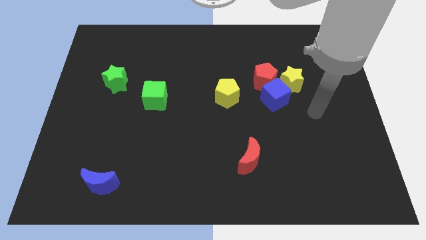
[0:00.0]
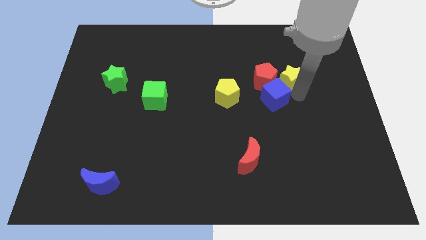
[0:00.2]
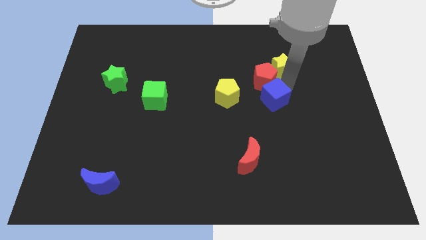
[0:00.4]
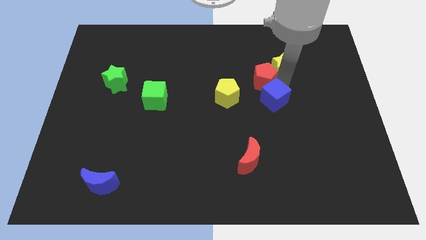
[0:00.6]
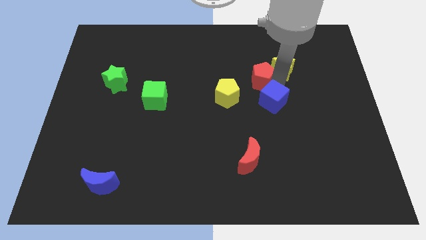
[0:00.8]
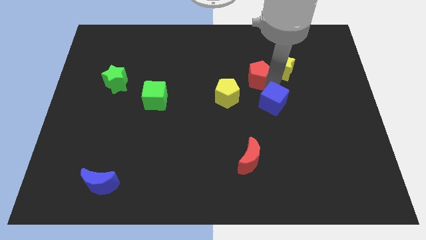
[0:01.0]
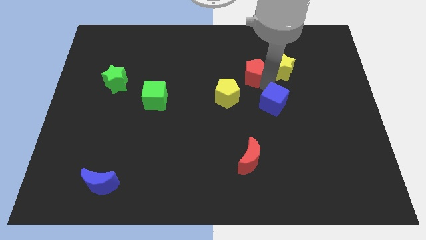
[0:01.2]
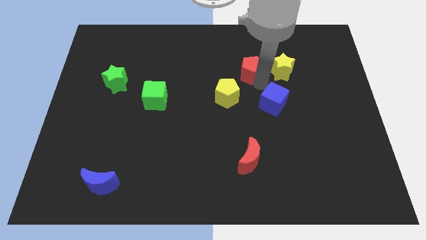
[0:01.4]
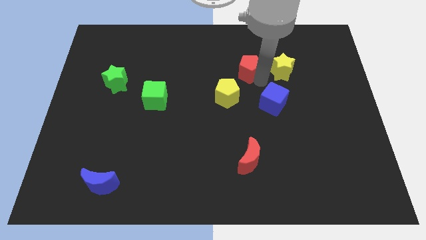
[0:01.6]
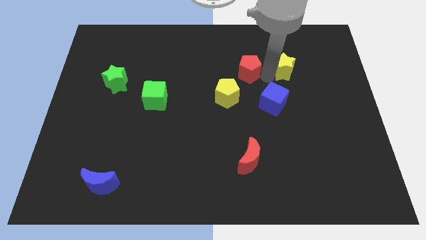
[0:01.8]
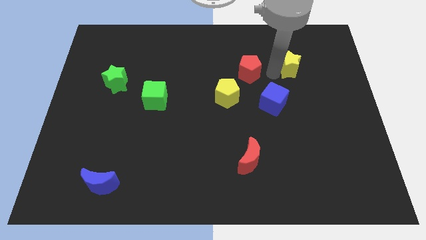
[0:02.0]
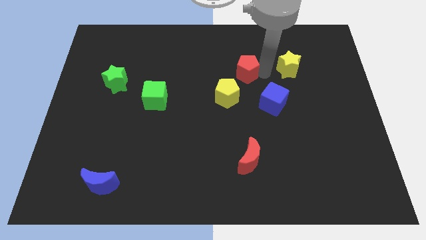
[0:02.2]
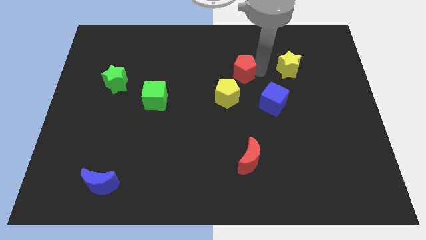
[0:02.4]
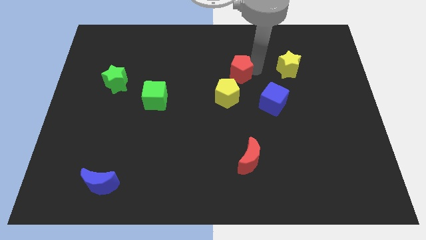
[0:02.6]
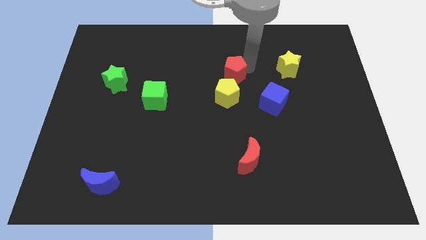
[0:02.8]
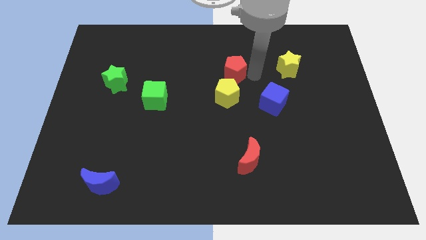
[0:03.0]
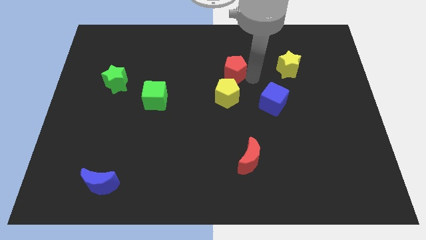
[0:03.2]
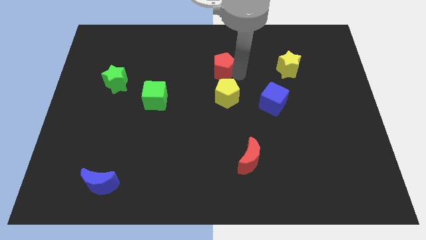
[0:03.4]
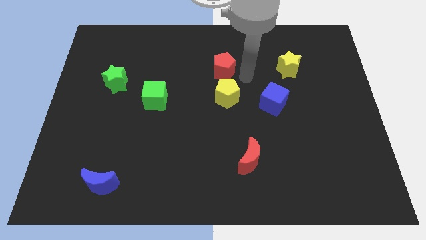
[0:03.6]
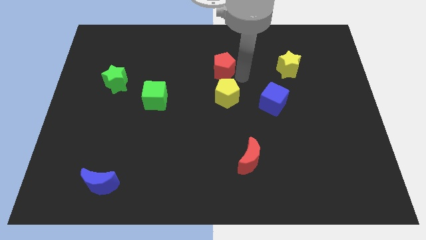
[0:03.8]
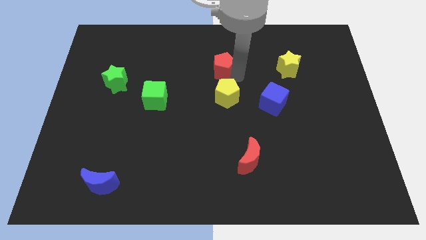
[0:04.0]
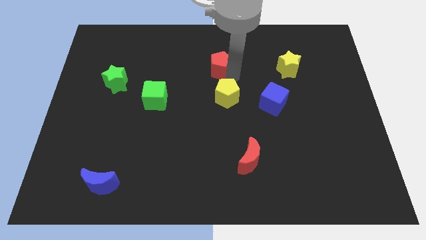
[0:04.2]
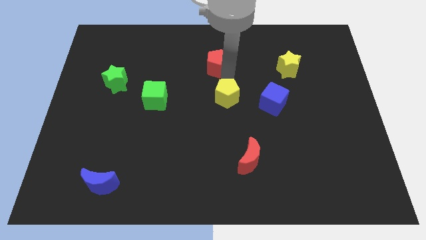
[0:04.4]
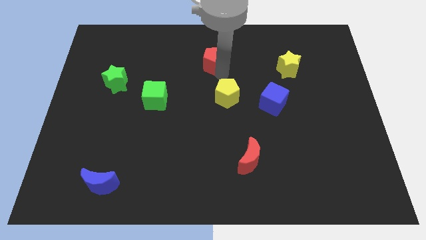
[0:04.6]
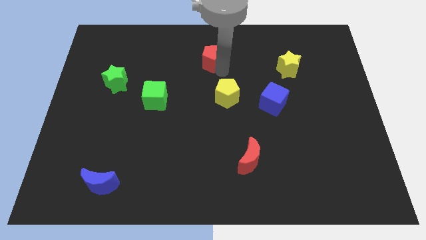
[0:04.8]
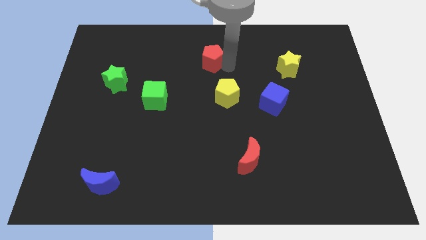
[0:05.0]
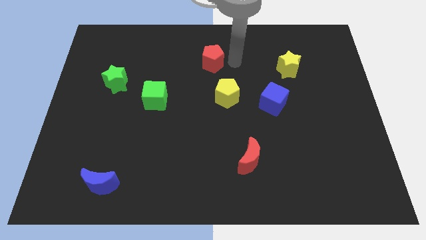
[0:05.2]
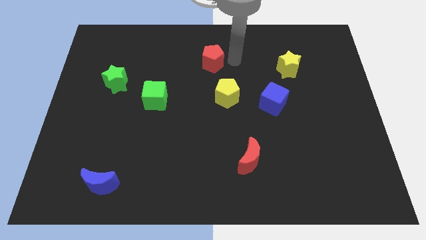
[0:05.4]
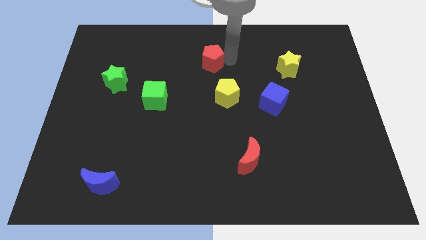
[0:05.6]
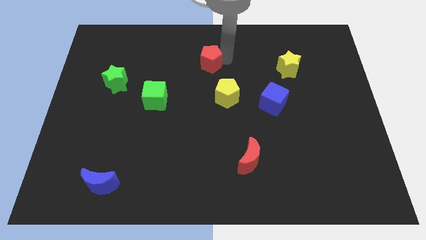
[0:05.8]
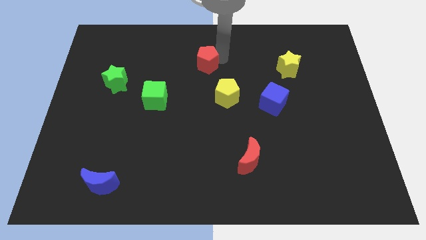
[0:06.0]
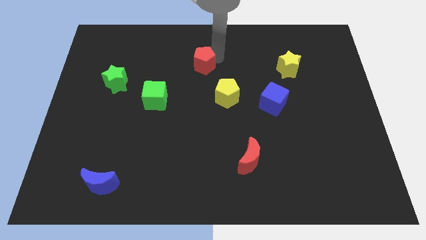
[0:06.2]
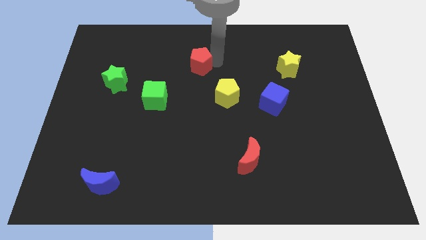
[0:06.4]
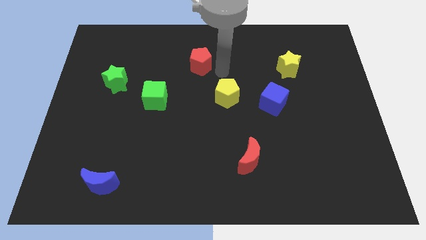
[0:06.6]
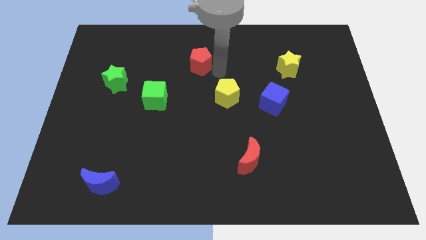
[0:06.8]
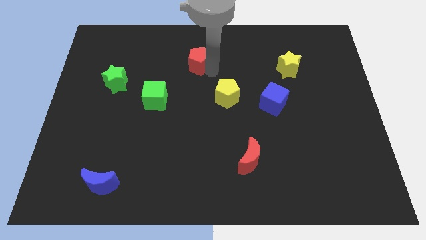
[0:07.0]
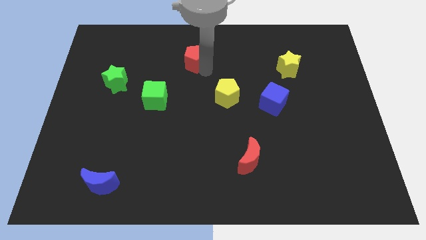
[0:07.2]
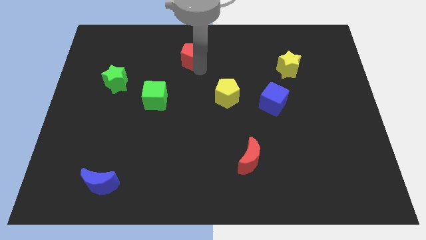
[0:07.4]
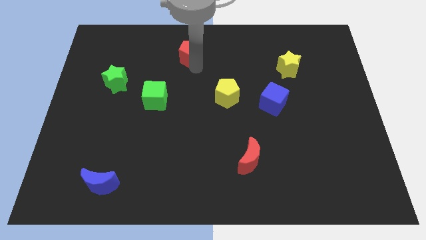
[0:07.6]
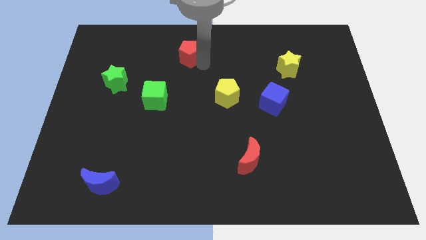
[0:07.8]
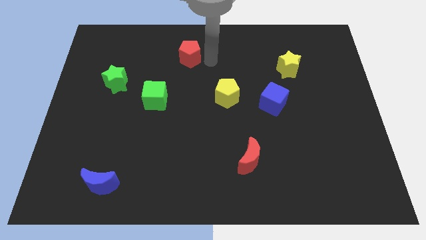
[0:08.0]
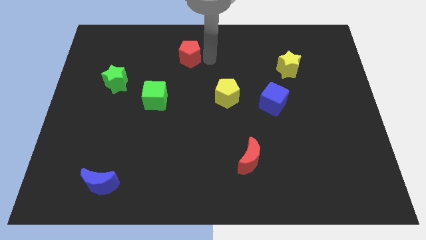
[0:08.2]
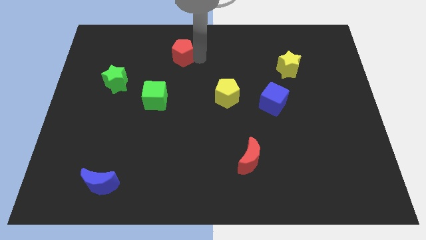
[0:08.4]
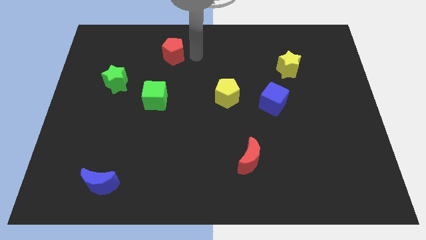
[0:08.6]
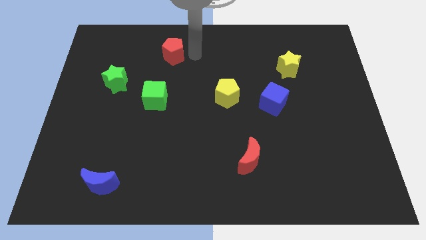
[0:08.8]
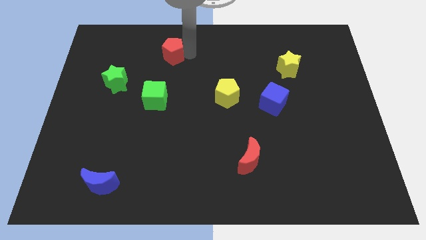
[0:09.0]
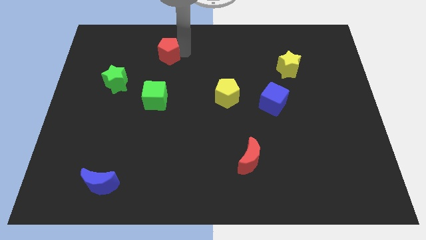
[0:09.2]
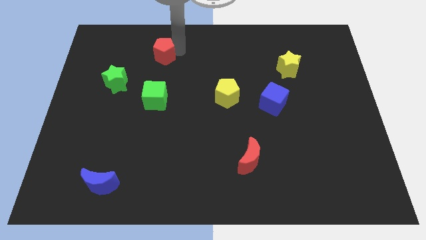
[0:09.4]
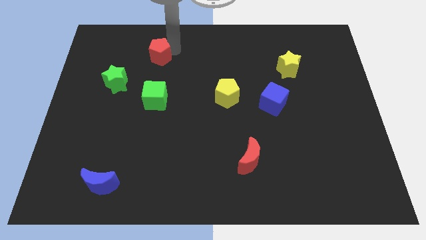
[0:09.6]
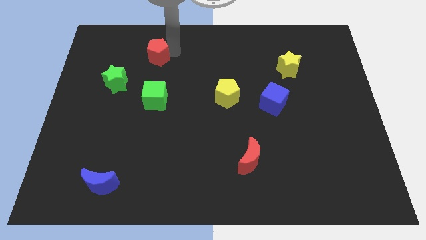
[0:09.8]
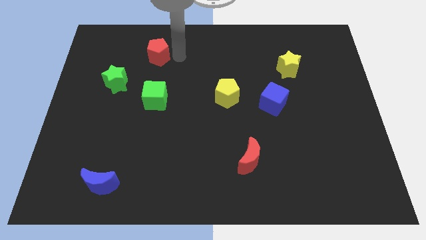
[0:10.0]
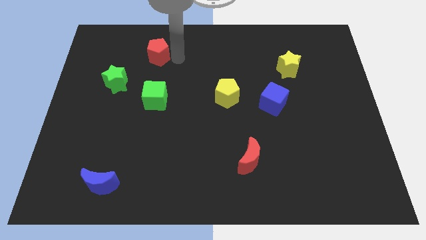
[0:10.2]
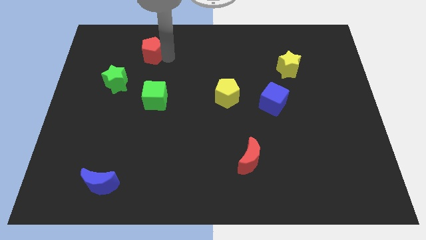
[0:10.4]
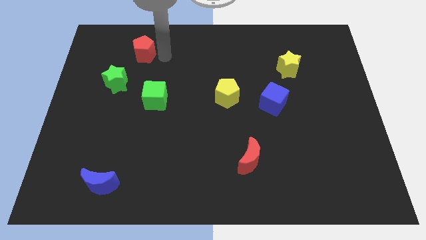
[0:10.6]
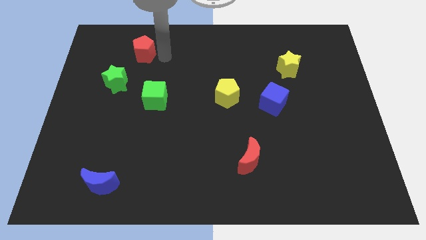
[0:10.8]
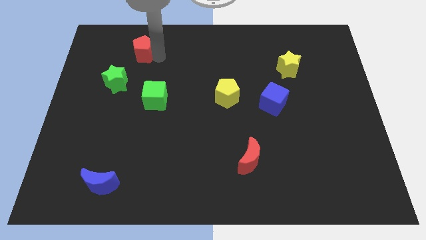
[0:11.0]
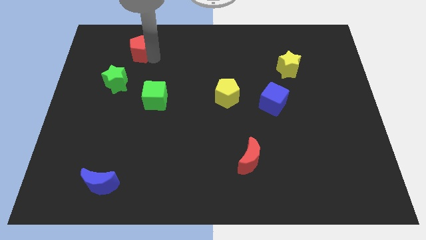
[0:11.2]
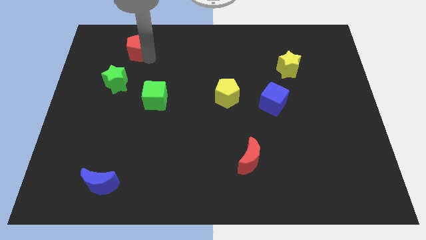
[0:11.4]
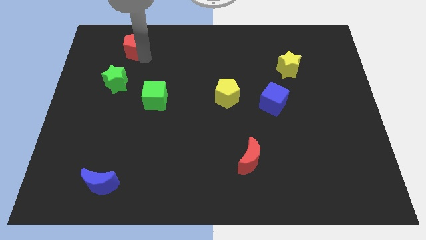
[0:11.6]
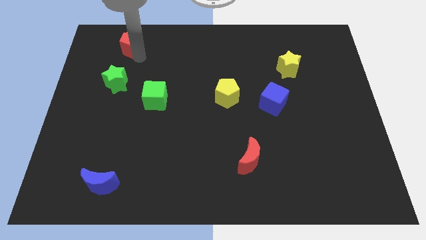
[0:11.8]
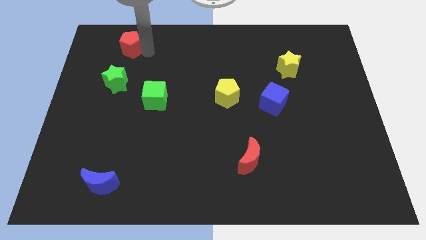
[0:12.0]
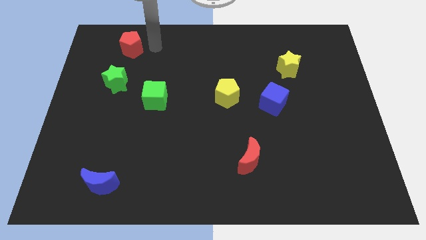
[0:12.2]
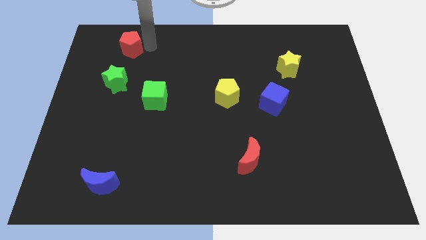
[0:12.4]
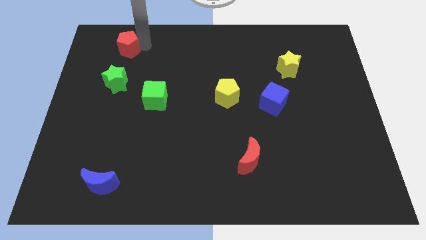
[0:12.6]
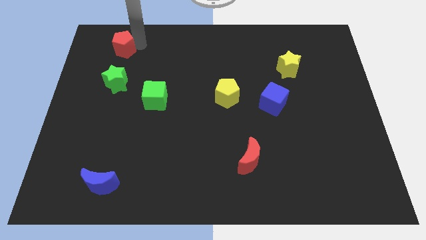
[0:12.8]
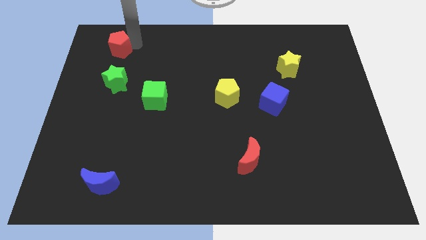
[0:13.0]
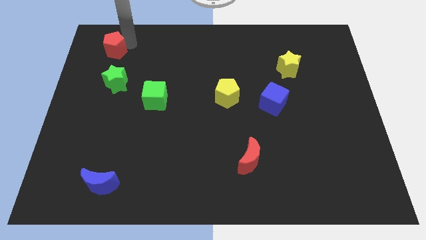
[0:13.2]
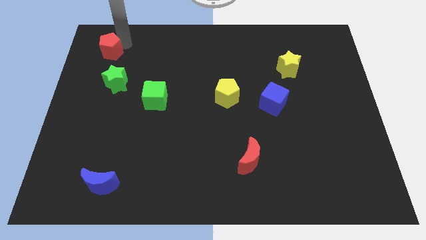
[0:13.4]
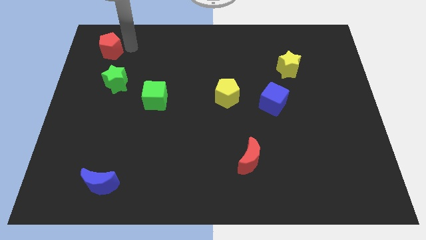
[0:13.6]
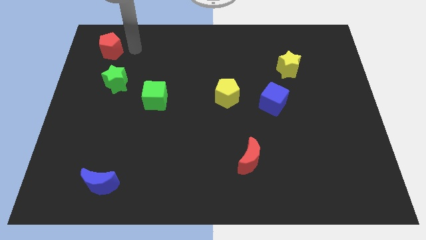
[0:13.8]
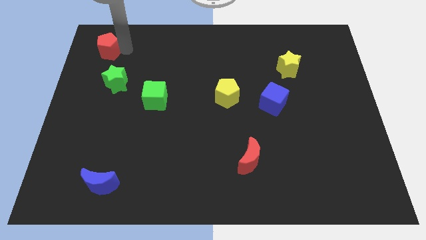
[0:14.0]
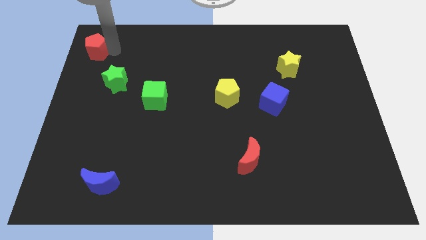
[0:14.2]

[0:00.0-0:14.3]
put the red pentagon to the top left
